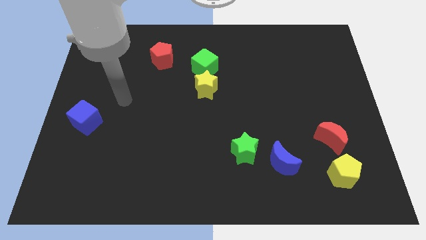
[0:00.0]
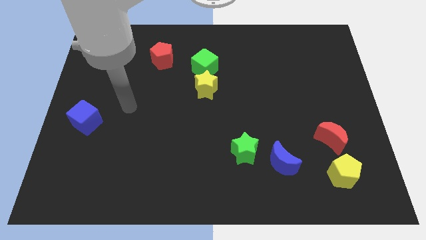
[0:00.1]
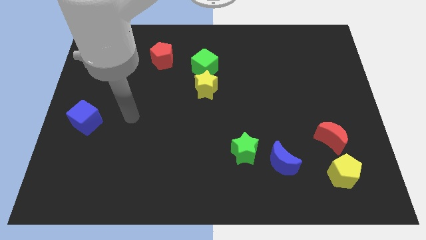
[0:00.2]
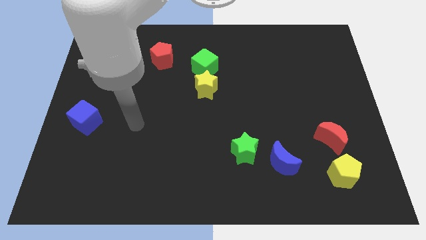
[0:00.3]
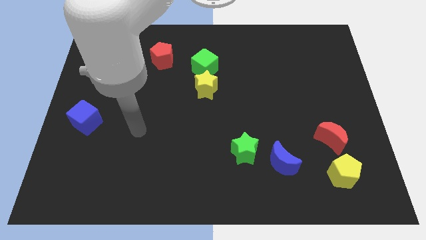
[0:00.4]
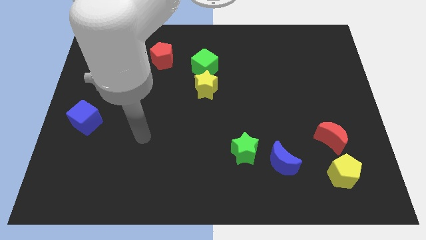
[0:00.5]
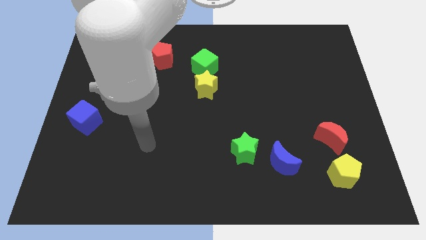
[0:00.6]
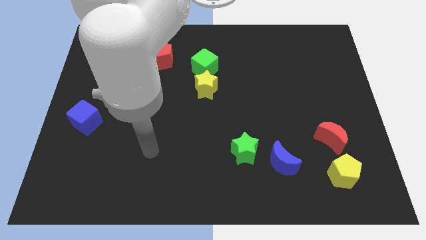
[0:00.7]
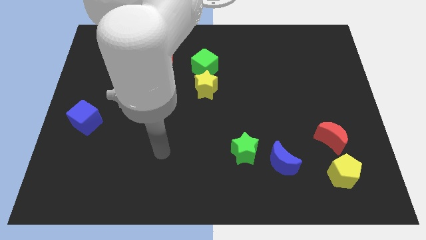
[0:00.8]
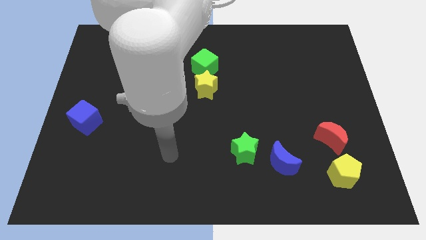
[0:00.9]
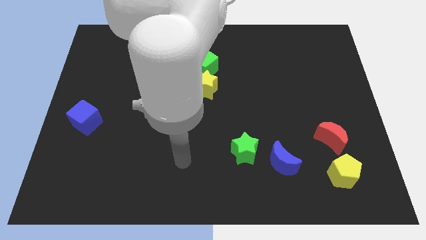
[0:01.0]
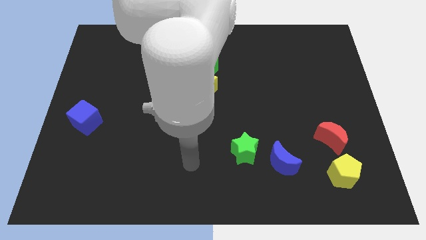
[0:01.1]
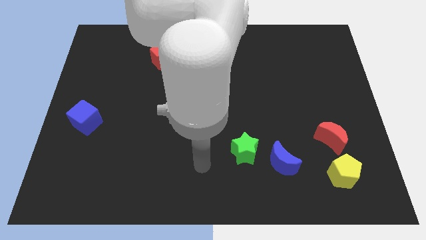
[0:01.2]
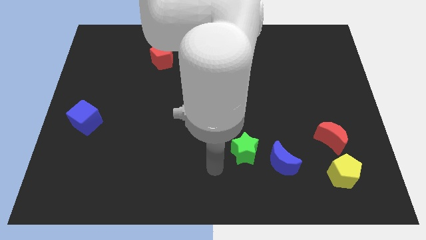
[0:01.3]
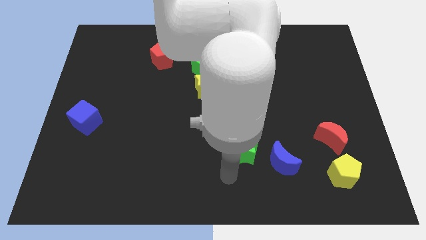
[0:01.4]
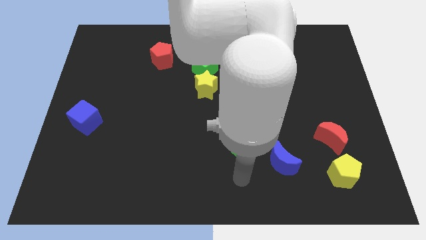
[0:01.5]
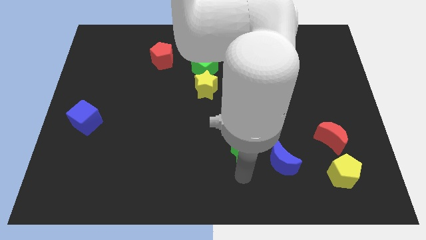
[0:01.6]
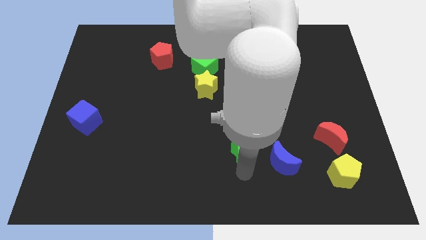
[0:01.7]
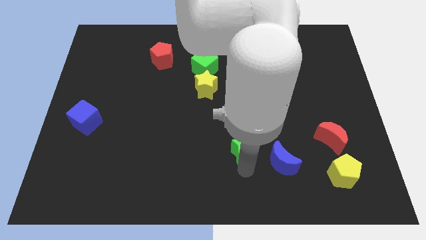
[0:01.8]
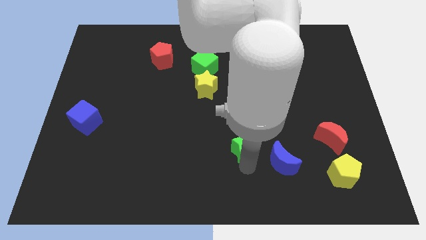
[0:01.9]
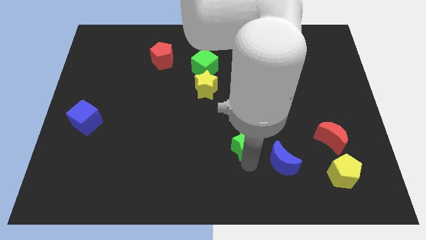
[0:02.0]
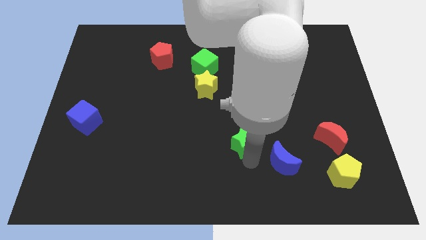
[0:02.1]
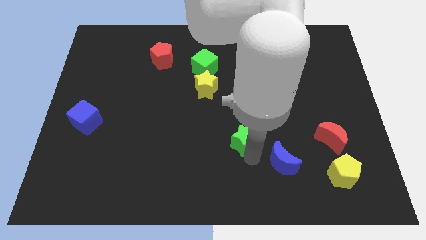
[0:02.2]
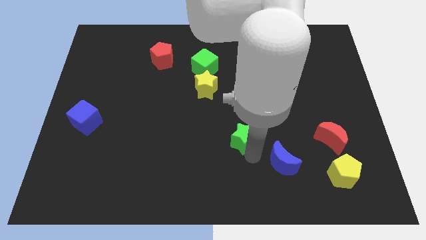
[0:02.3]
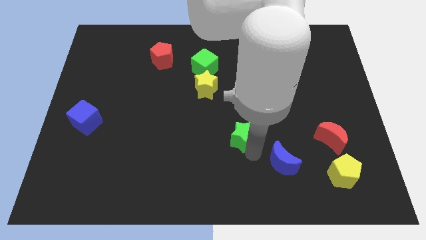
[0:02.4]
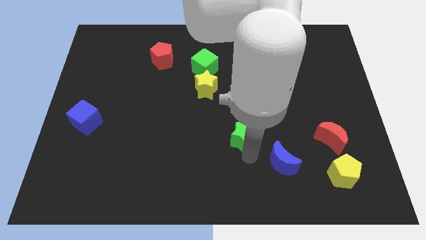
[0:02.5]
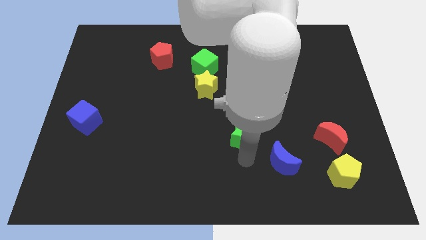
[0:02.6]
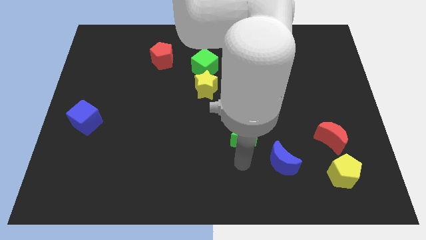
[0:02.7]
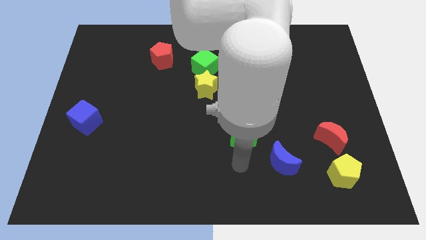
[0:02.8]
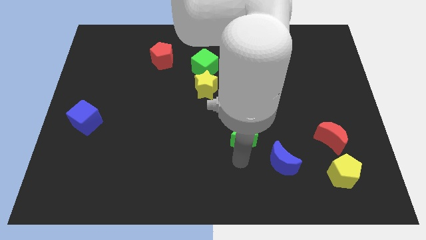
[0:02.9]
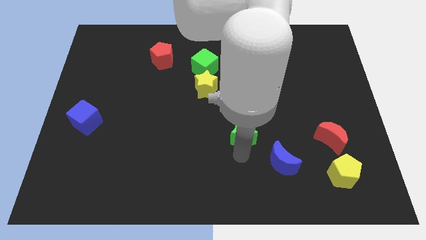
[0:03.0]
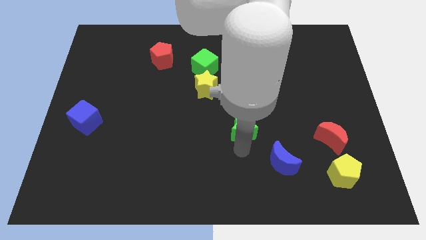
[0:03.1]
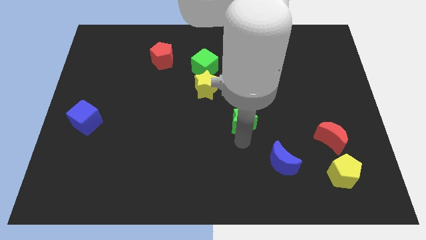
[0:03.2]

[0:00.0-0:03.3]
push the green star upwards slightly

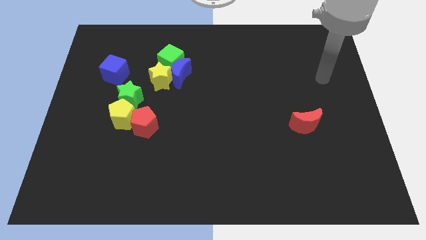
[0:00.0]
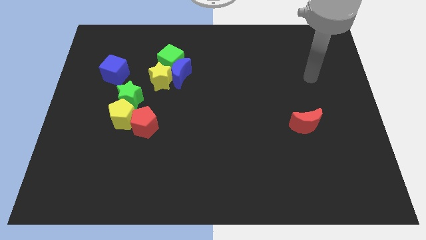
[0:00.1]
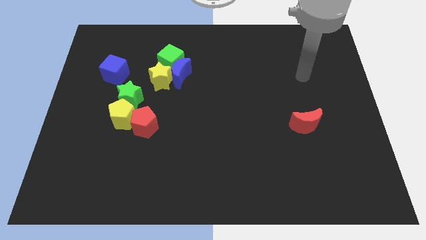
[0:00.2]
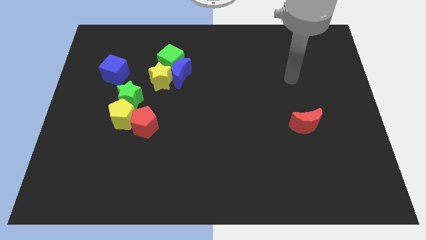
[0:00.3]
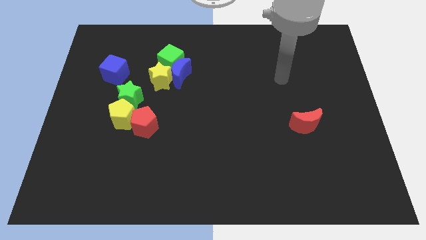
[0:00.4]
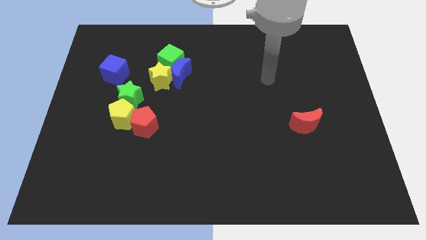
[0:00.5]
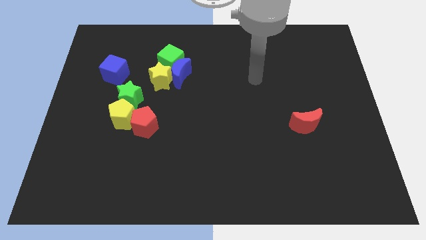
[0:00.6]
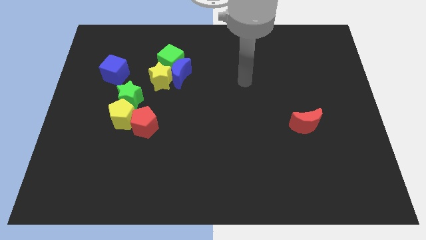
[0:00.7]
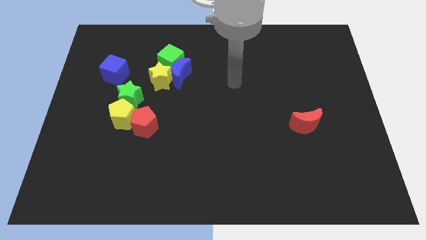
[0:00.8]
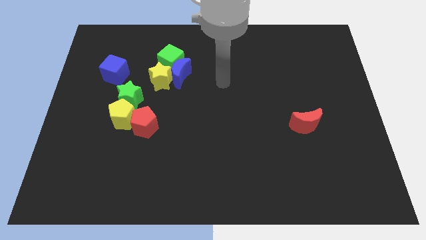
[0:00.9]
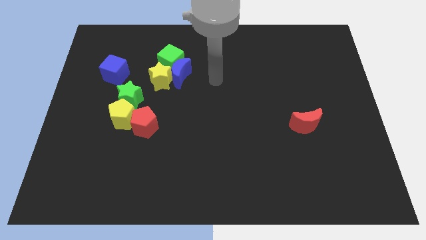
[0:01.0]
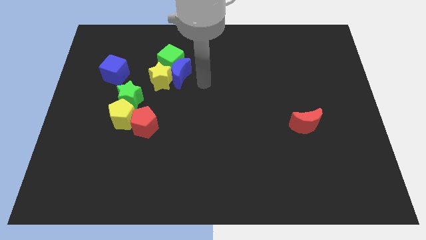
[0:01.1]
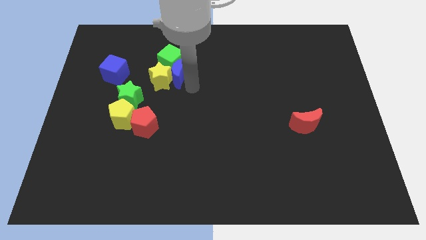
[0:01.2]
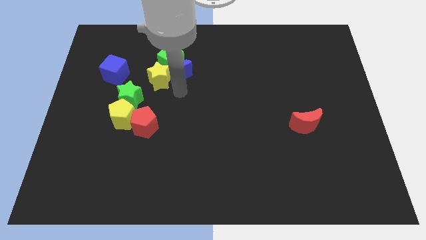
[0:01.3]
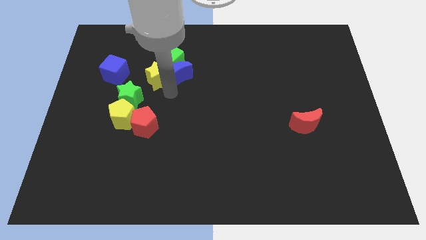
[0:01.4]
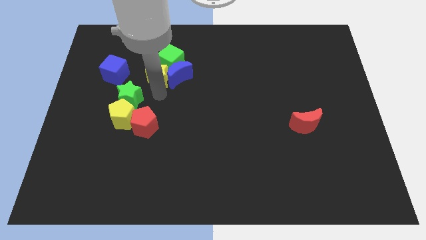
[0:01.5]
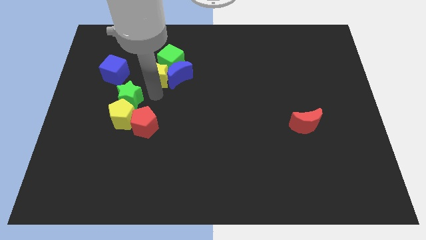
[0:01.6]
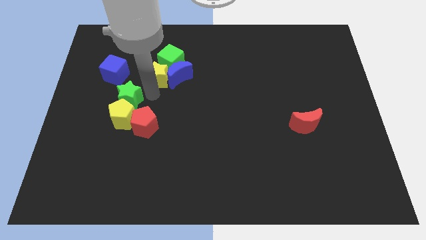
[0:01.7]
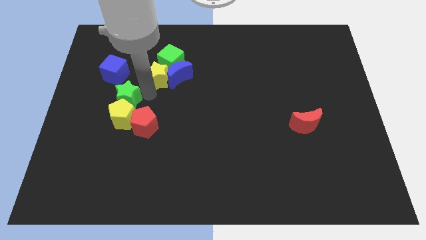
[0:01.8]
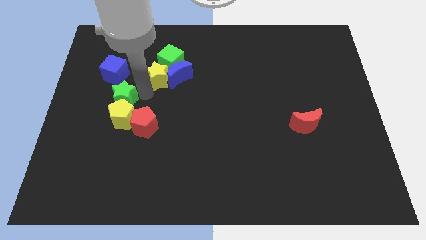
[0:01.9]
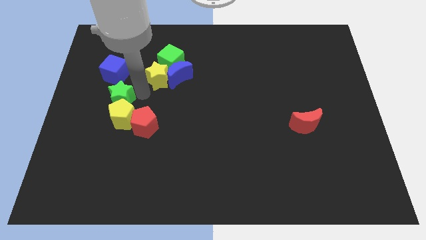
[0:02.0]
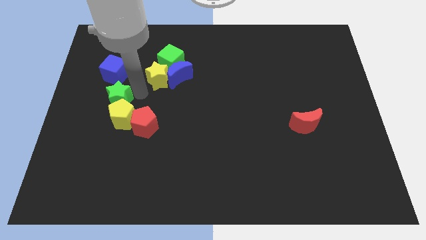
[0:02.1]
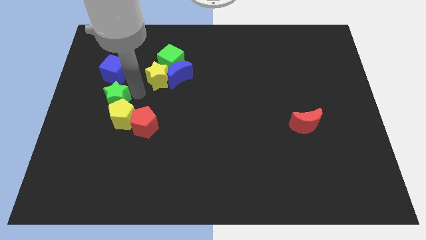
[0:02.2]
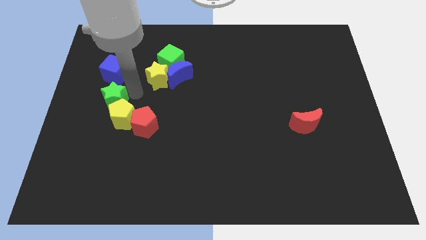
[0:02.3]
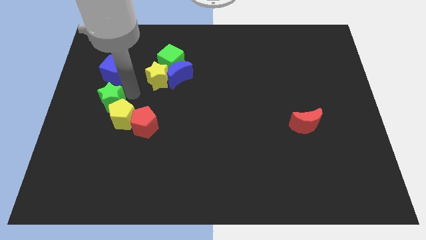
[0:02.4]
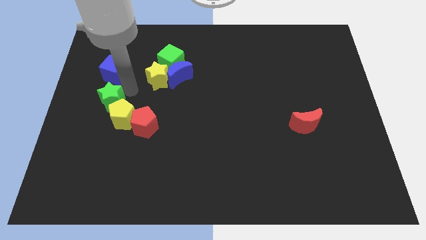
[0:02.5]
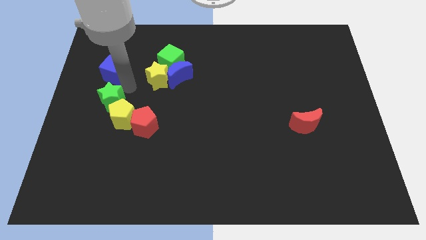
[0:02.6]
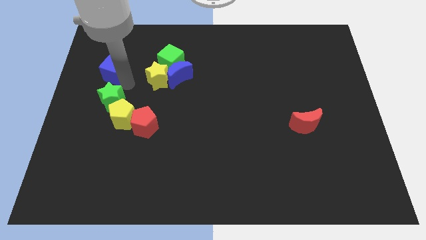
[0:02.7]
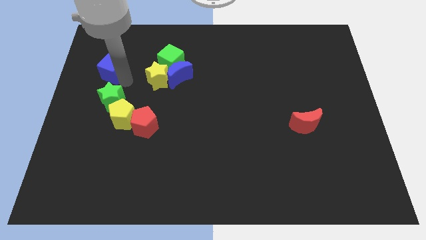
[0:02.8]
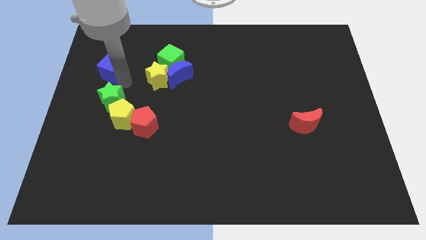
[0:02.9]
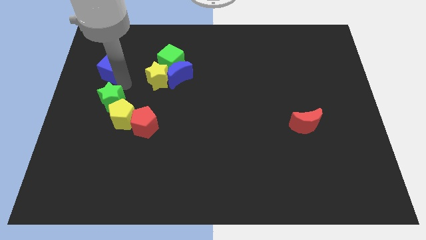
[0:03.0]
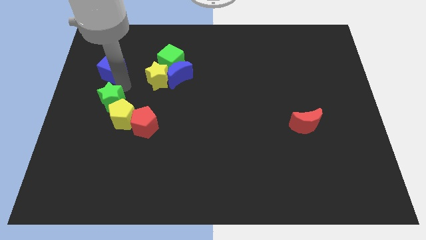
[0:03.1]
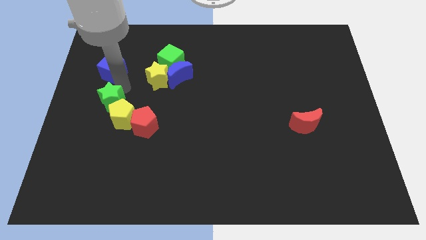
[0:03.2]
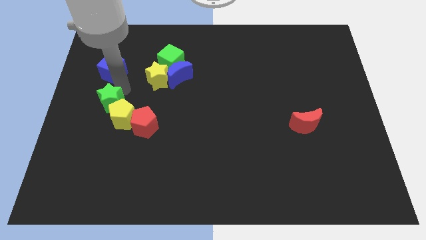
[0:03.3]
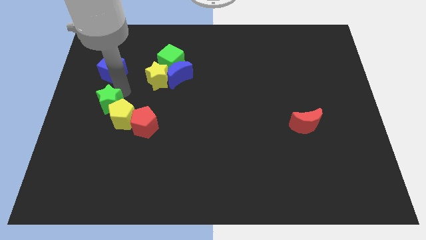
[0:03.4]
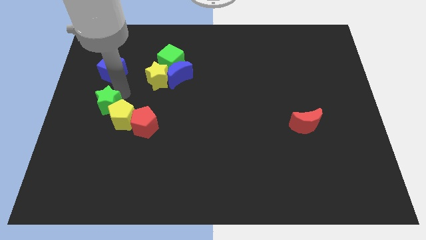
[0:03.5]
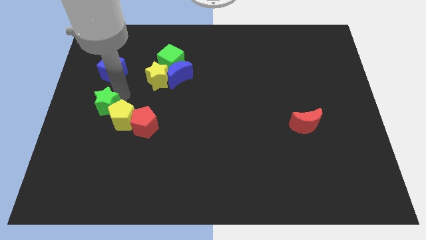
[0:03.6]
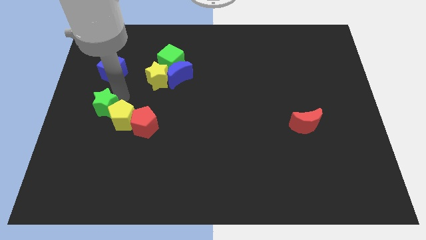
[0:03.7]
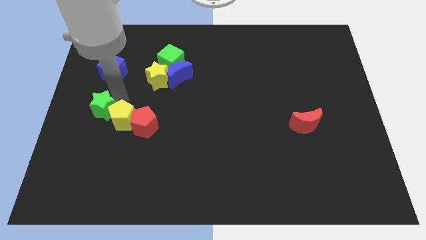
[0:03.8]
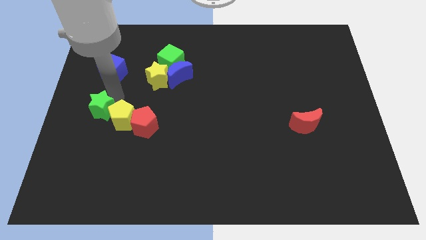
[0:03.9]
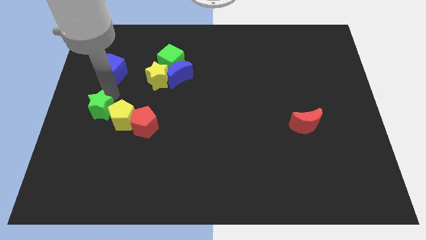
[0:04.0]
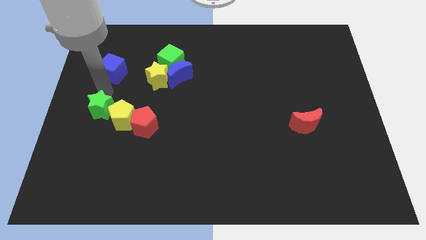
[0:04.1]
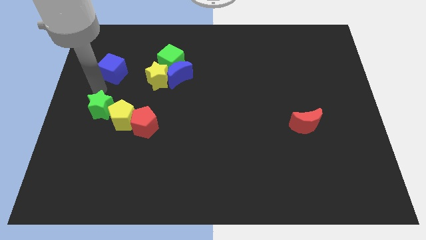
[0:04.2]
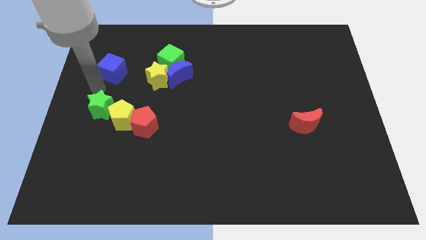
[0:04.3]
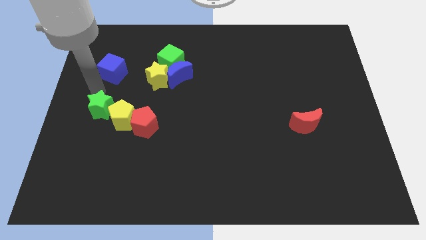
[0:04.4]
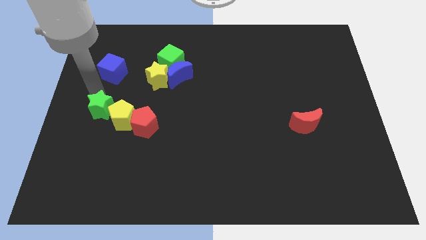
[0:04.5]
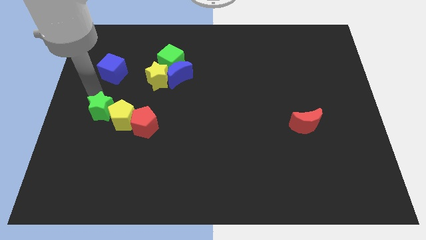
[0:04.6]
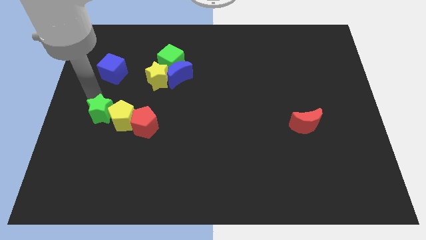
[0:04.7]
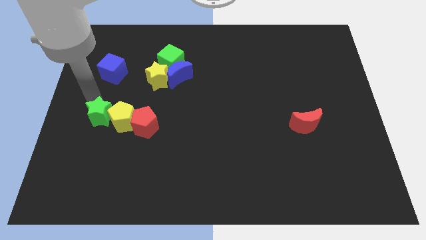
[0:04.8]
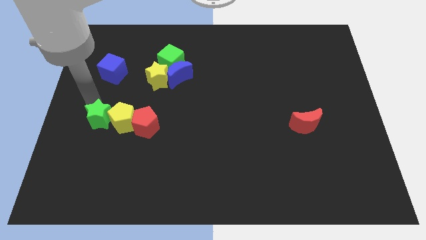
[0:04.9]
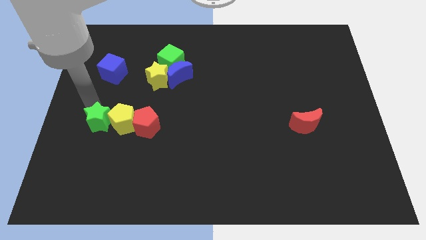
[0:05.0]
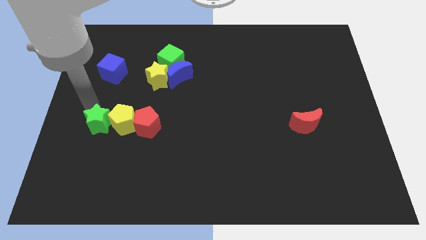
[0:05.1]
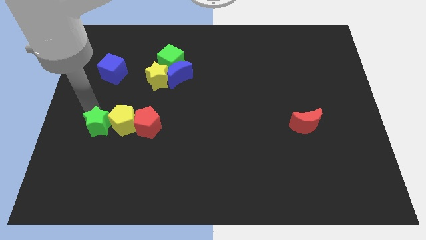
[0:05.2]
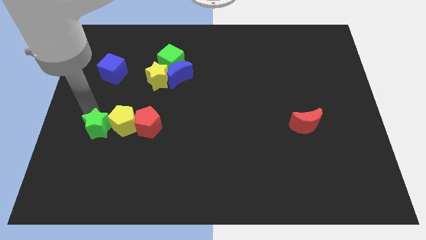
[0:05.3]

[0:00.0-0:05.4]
slide the green star a bit downwards
